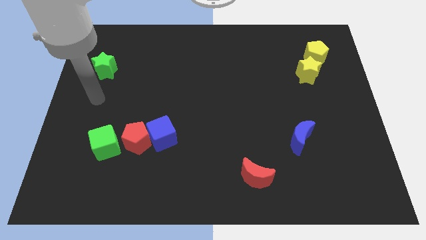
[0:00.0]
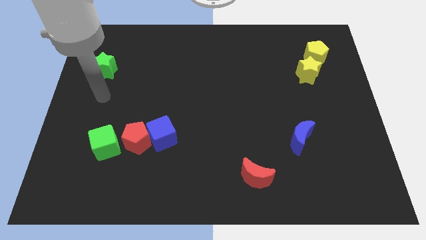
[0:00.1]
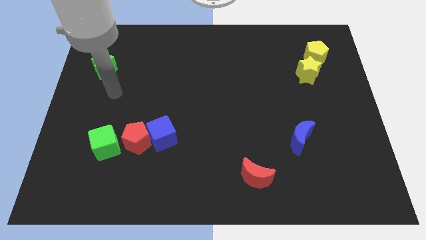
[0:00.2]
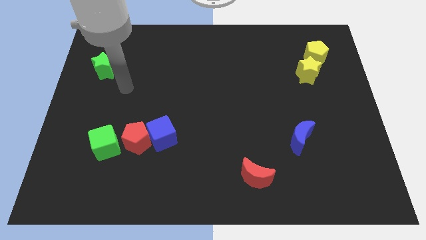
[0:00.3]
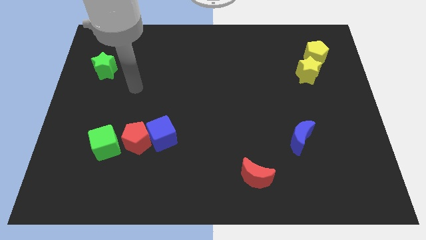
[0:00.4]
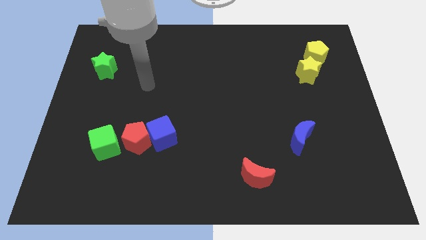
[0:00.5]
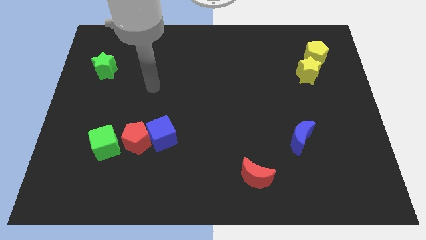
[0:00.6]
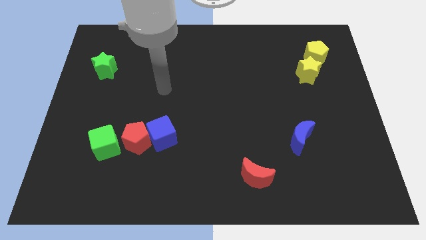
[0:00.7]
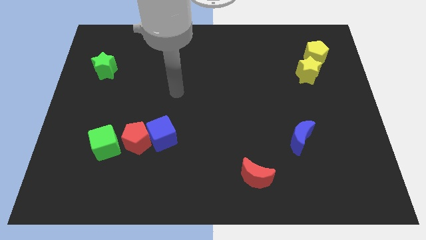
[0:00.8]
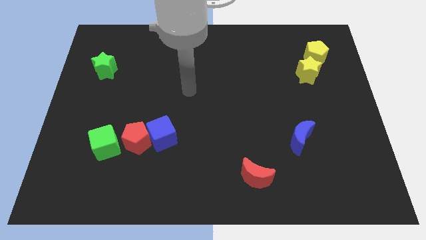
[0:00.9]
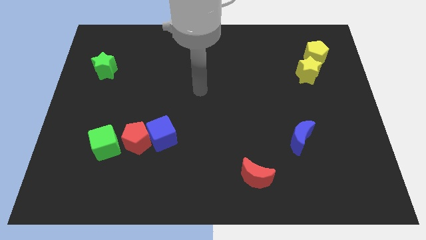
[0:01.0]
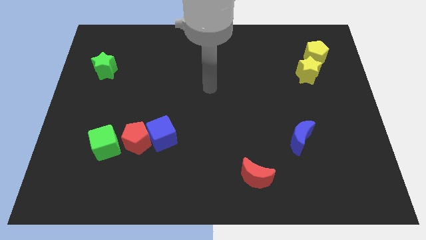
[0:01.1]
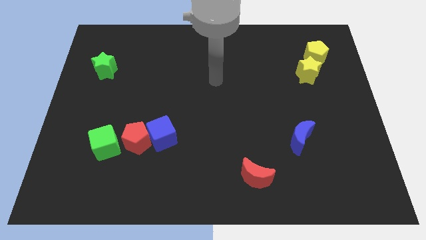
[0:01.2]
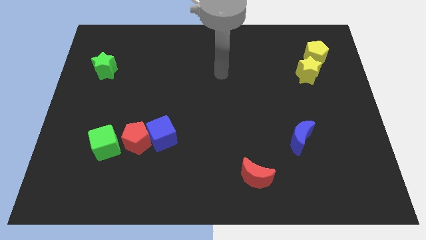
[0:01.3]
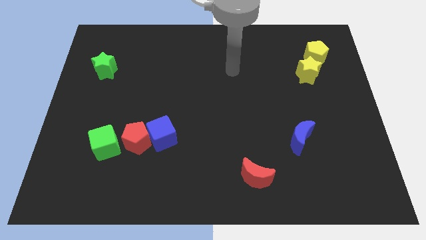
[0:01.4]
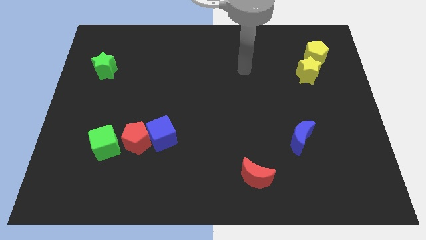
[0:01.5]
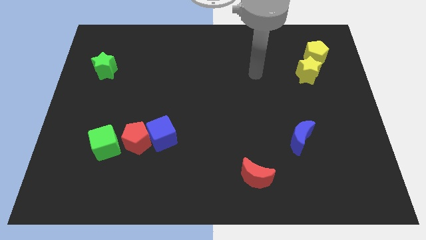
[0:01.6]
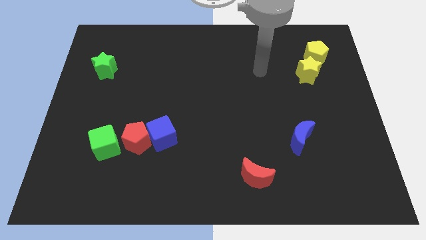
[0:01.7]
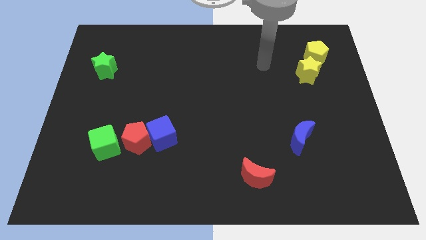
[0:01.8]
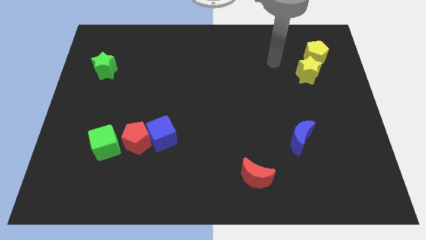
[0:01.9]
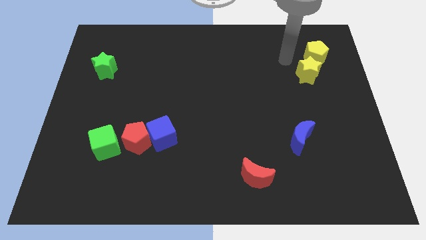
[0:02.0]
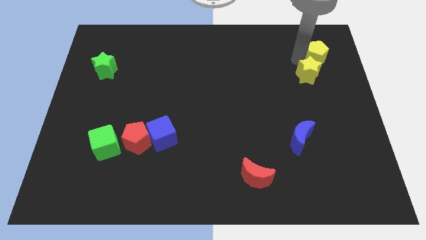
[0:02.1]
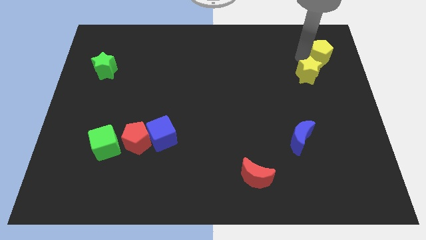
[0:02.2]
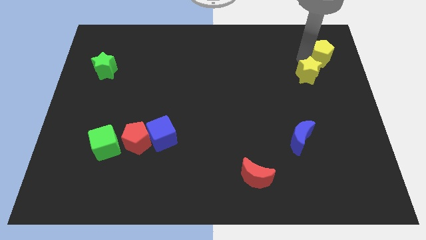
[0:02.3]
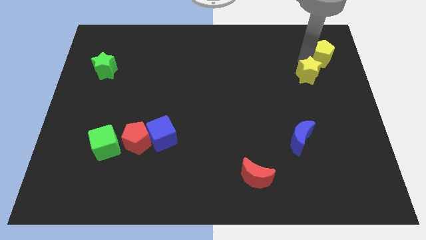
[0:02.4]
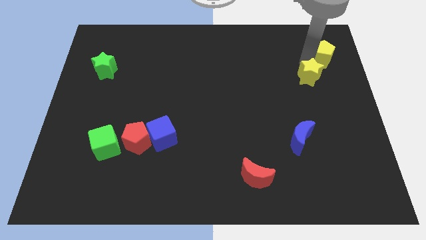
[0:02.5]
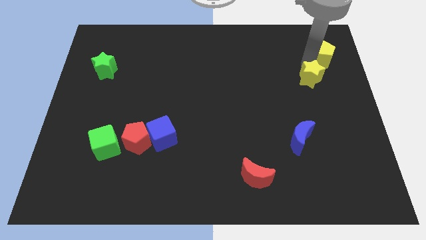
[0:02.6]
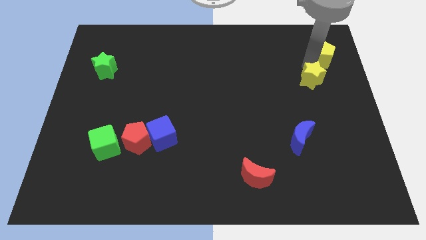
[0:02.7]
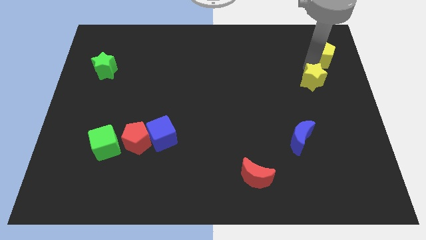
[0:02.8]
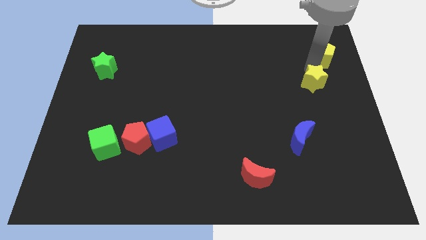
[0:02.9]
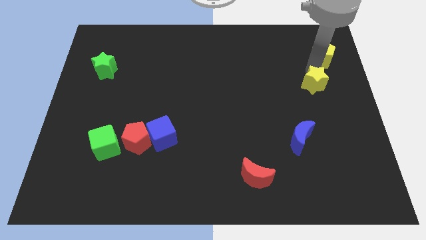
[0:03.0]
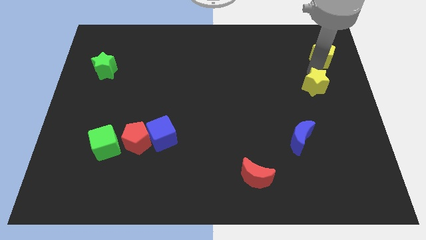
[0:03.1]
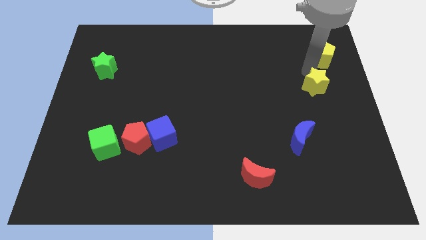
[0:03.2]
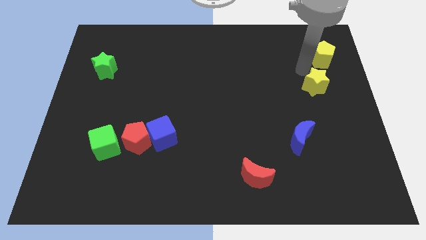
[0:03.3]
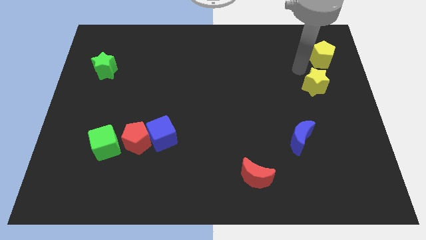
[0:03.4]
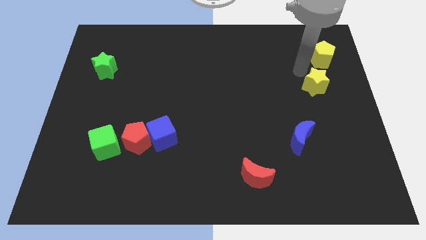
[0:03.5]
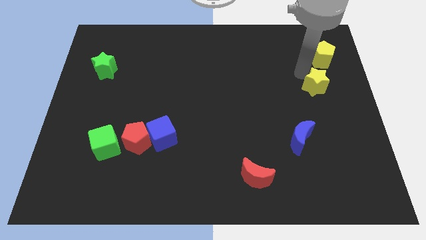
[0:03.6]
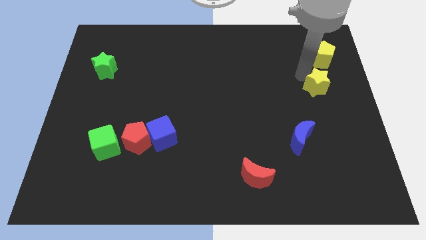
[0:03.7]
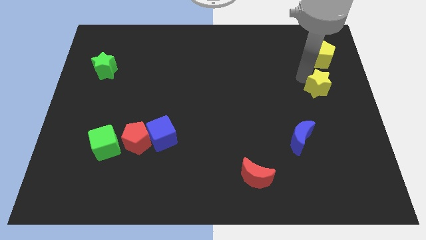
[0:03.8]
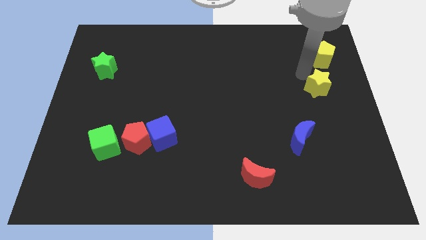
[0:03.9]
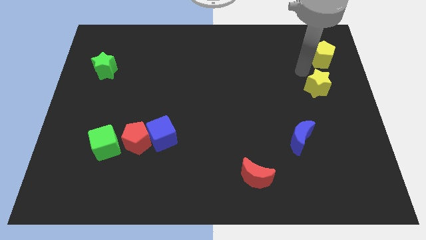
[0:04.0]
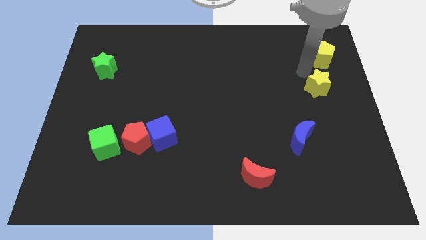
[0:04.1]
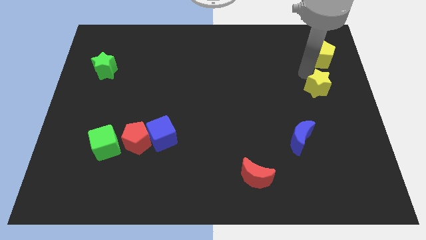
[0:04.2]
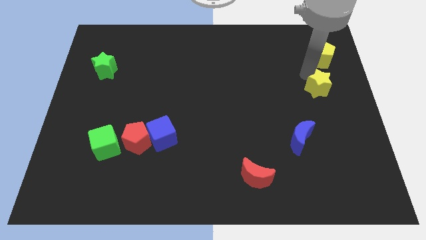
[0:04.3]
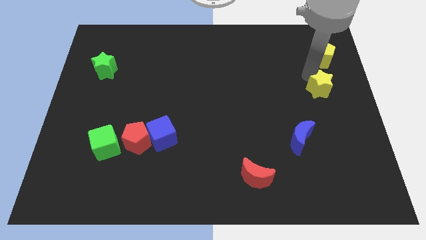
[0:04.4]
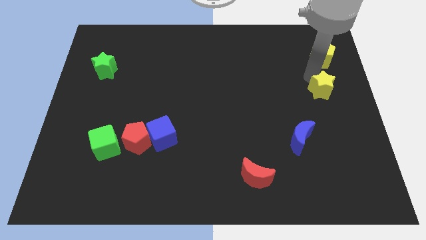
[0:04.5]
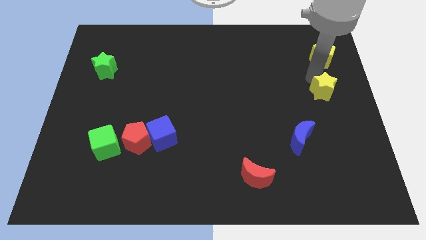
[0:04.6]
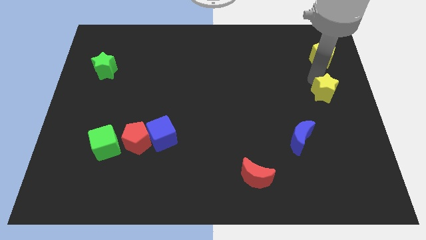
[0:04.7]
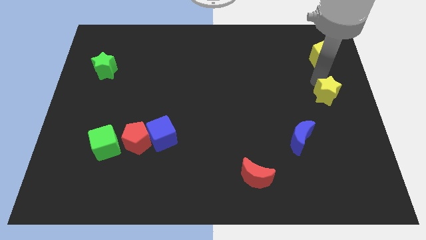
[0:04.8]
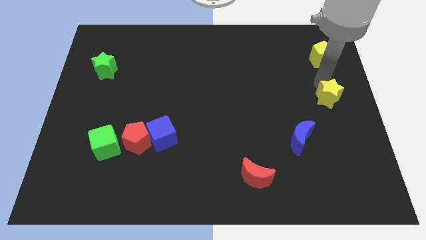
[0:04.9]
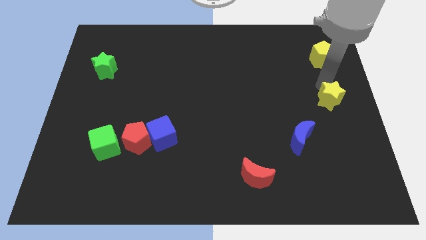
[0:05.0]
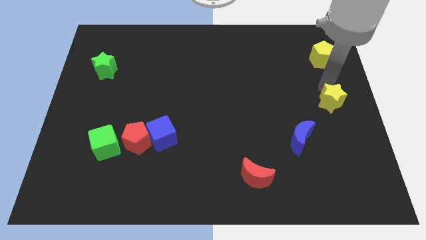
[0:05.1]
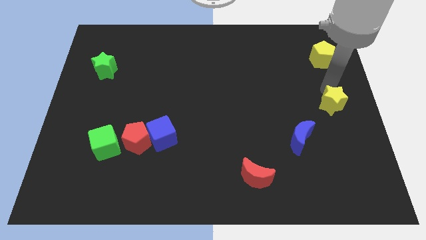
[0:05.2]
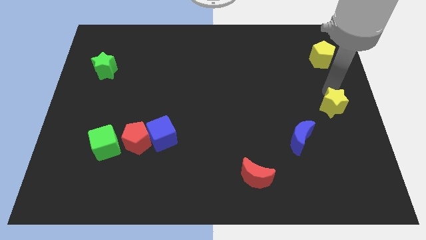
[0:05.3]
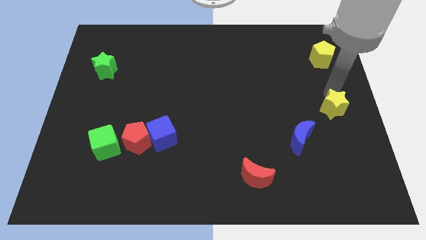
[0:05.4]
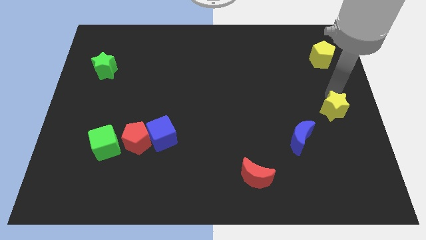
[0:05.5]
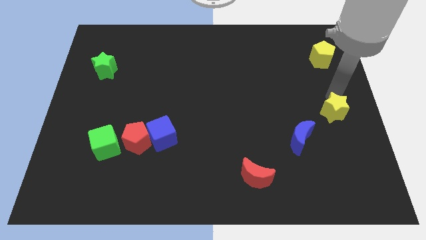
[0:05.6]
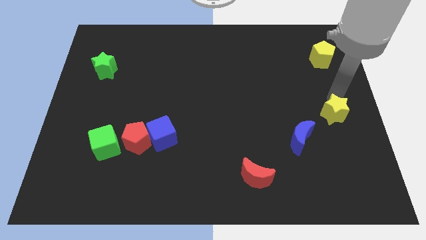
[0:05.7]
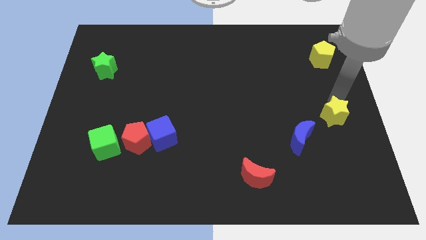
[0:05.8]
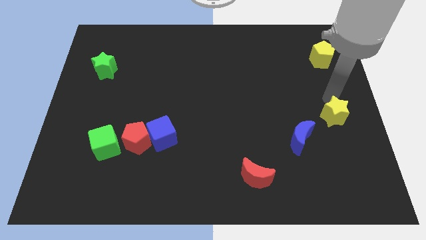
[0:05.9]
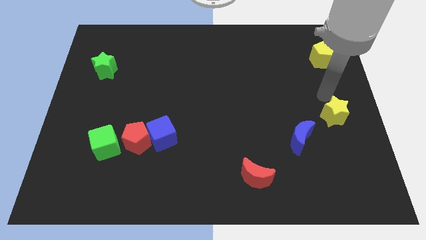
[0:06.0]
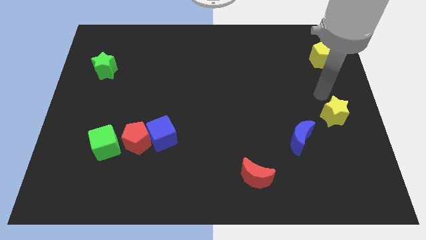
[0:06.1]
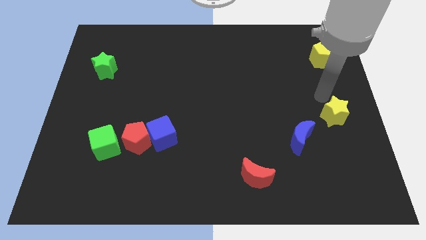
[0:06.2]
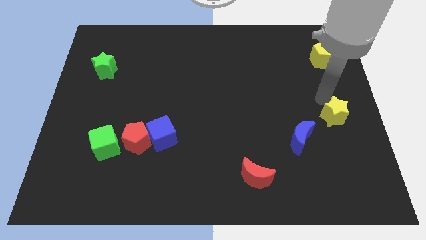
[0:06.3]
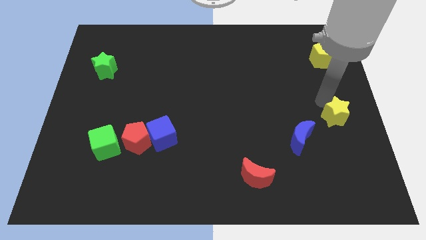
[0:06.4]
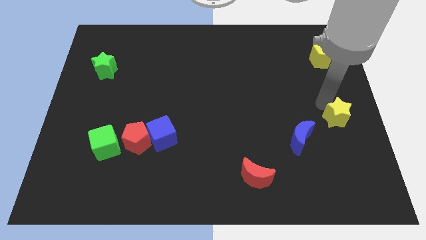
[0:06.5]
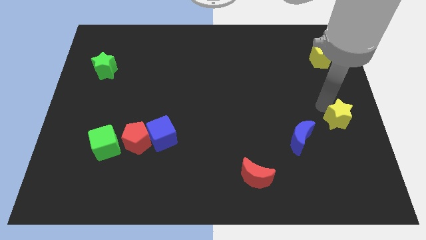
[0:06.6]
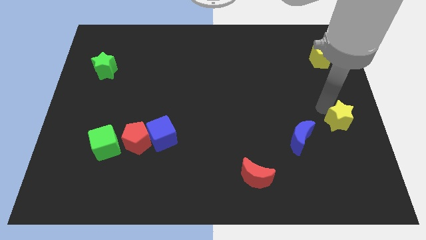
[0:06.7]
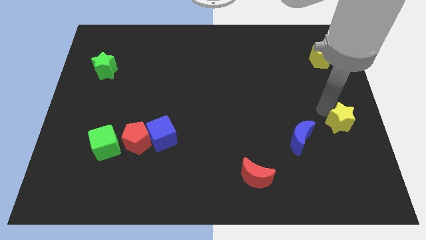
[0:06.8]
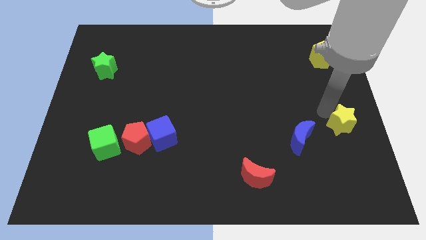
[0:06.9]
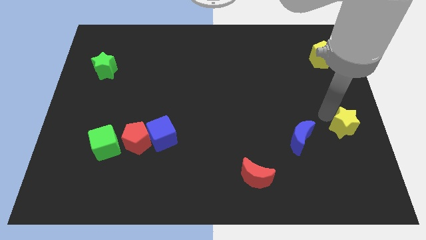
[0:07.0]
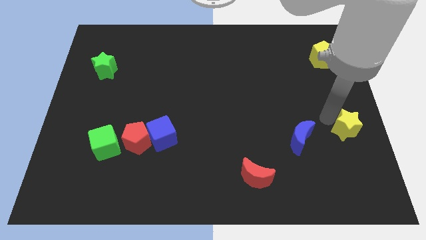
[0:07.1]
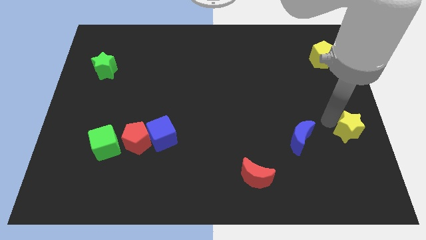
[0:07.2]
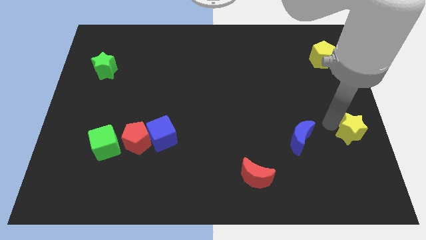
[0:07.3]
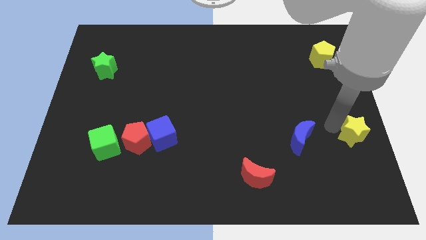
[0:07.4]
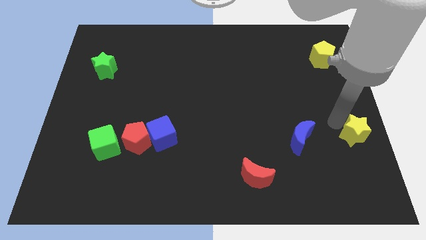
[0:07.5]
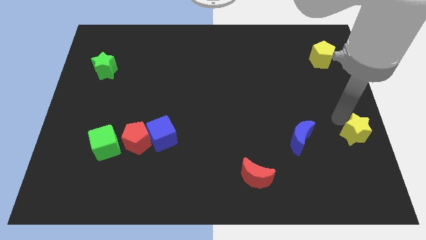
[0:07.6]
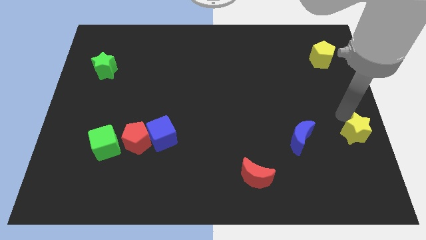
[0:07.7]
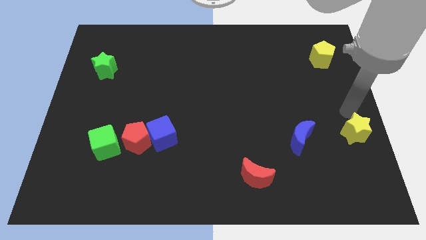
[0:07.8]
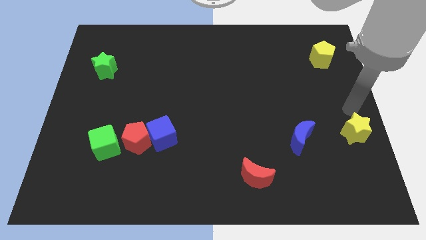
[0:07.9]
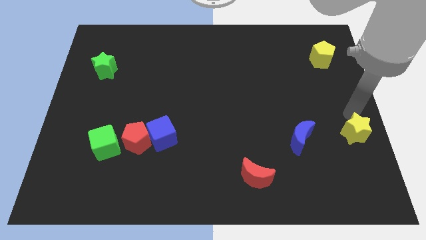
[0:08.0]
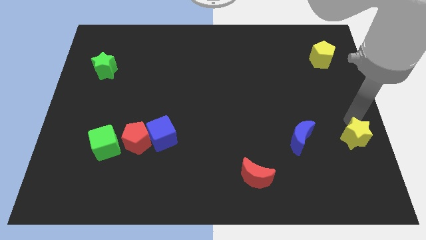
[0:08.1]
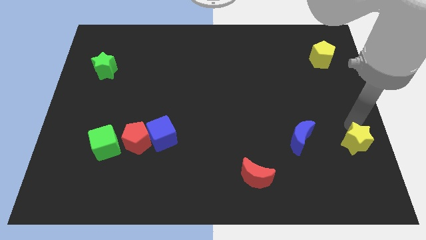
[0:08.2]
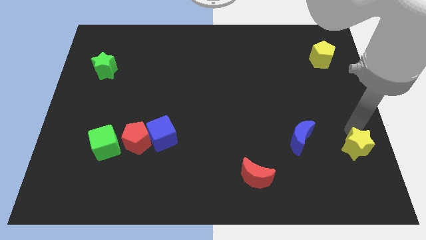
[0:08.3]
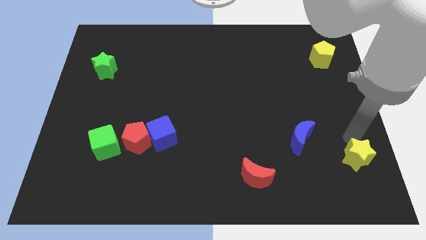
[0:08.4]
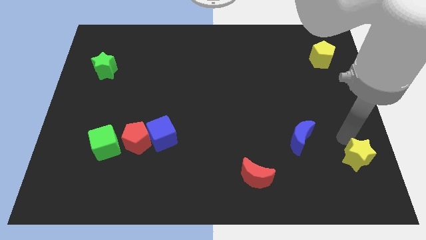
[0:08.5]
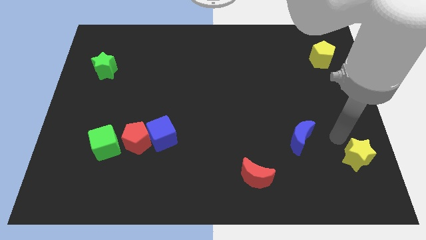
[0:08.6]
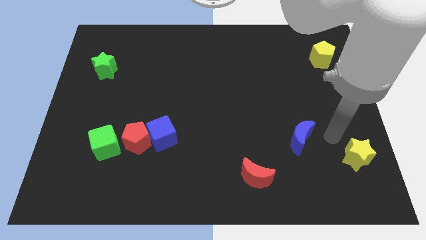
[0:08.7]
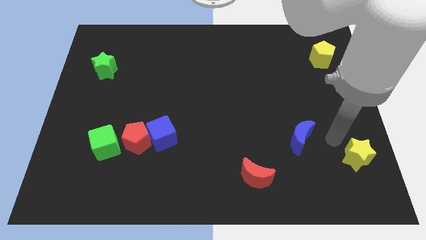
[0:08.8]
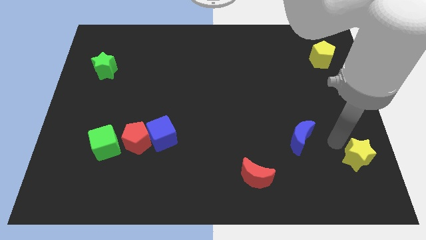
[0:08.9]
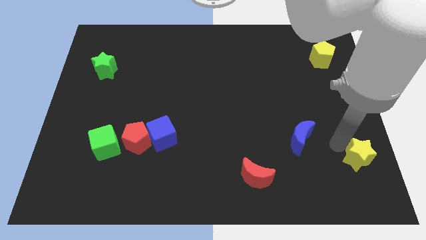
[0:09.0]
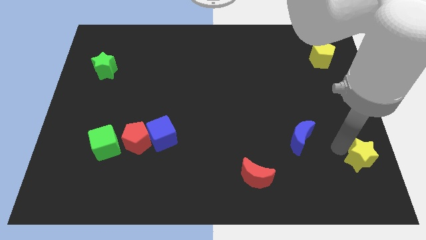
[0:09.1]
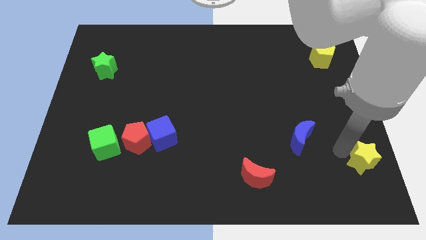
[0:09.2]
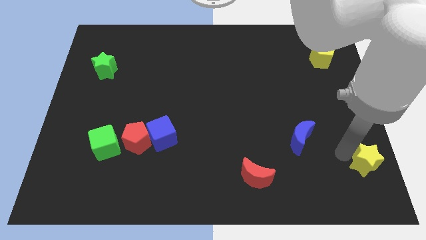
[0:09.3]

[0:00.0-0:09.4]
push the yellow star to the bottom right corner
